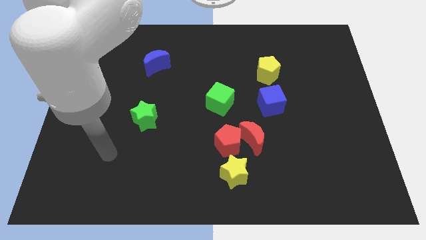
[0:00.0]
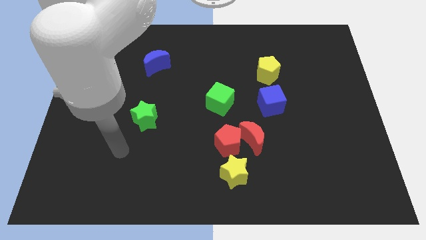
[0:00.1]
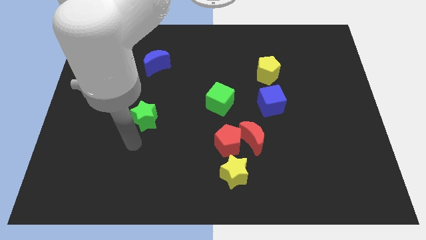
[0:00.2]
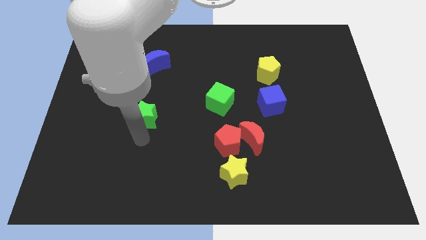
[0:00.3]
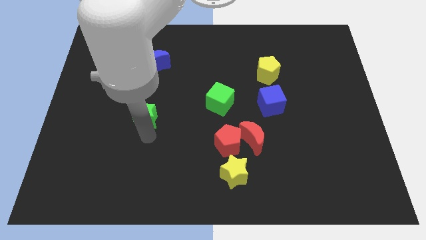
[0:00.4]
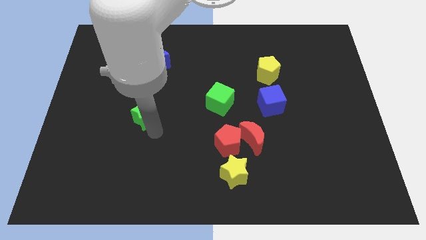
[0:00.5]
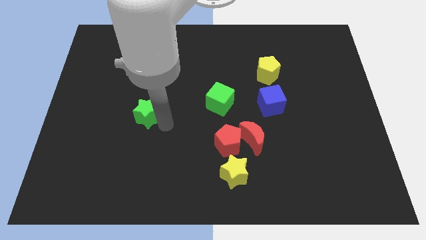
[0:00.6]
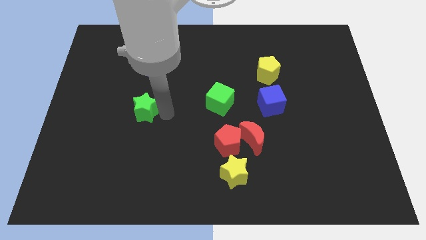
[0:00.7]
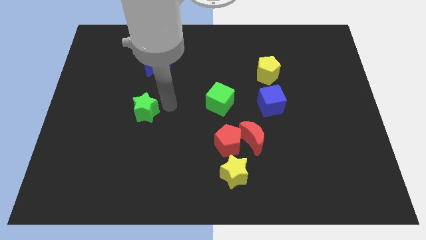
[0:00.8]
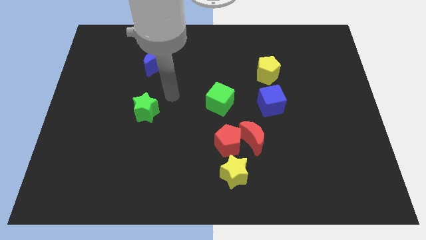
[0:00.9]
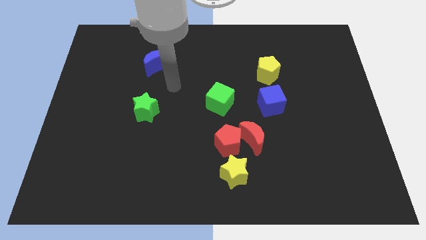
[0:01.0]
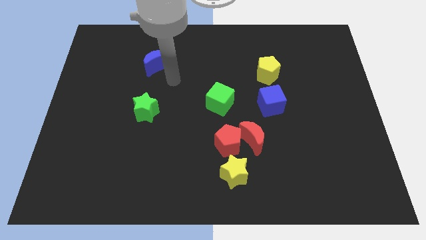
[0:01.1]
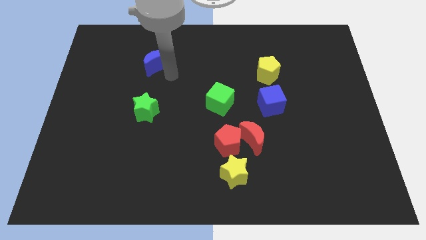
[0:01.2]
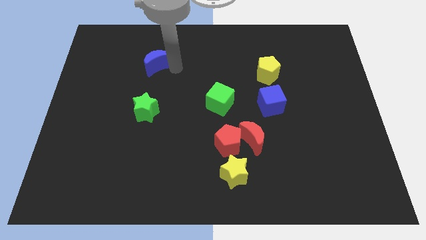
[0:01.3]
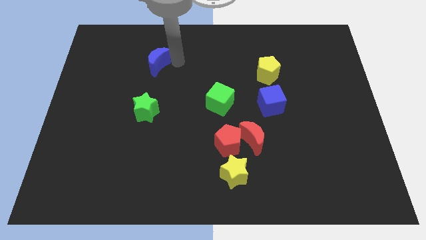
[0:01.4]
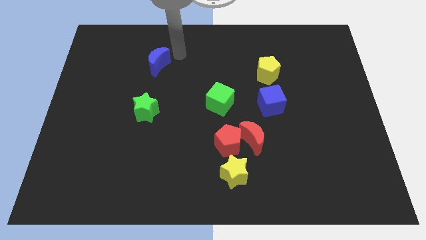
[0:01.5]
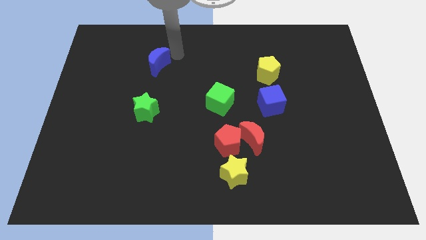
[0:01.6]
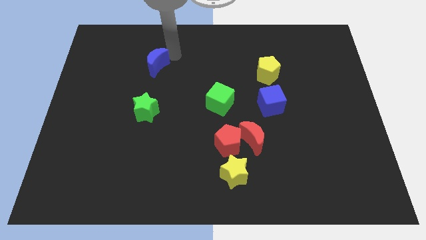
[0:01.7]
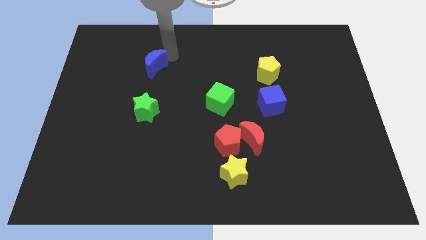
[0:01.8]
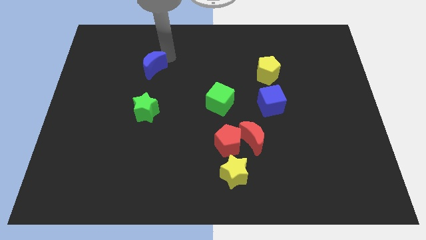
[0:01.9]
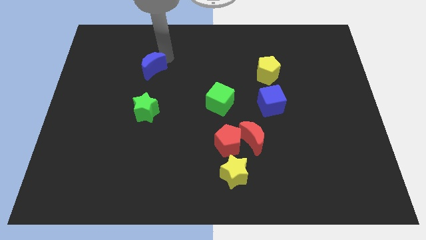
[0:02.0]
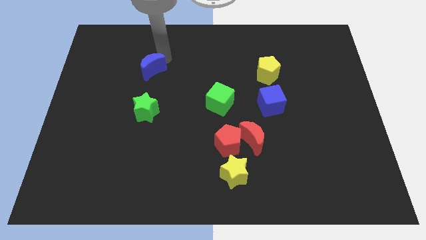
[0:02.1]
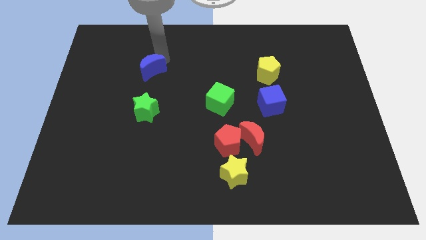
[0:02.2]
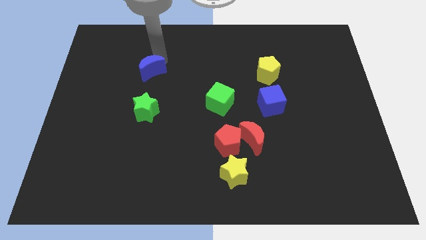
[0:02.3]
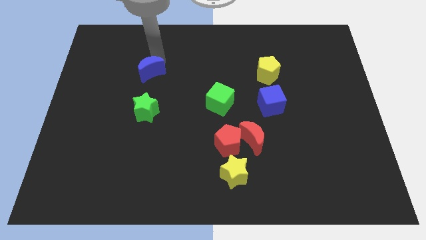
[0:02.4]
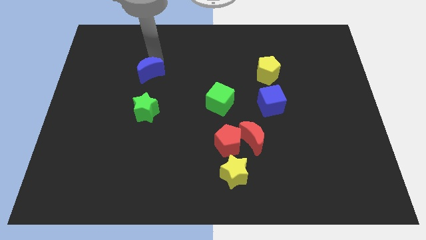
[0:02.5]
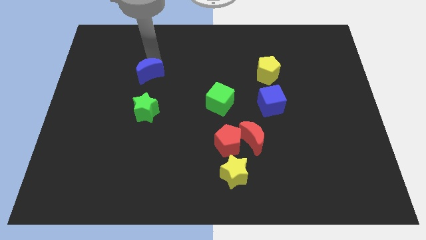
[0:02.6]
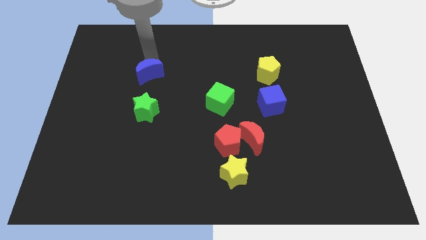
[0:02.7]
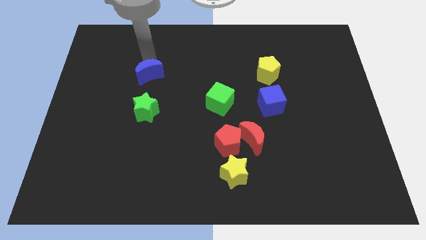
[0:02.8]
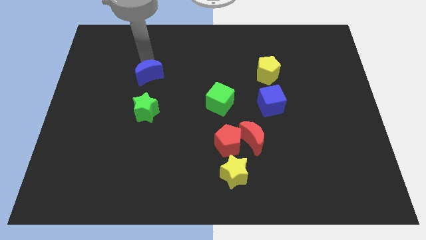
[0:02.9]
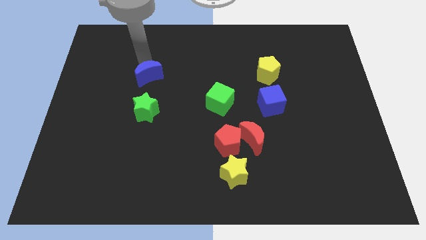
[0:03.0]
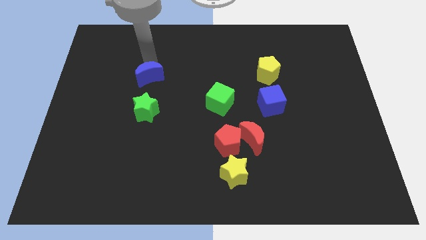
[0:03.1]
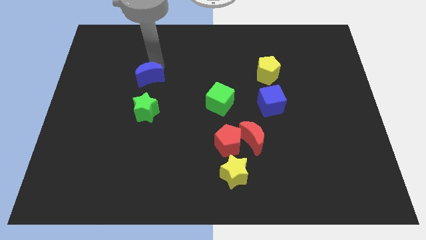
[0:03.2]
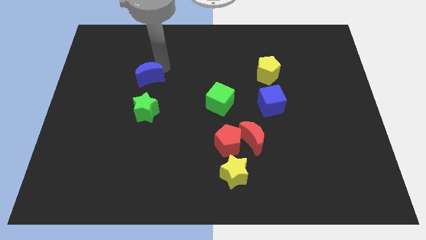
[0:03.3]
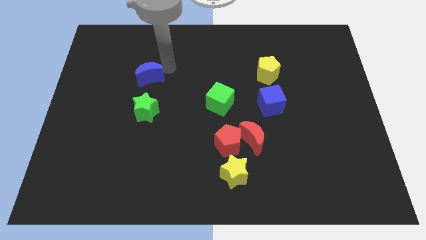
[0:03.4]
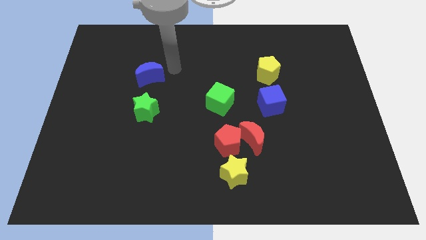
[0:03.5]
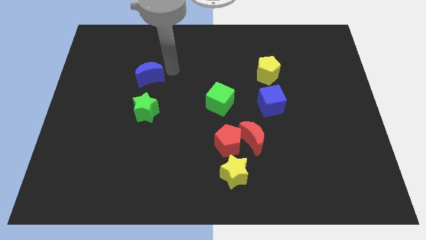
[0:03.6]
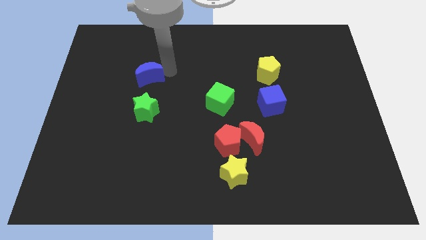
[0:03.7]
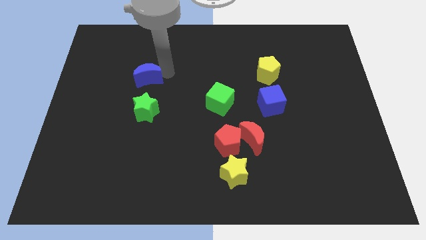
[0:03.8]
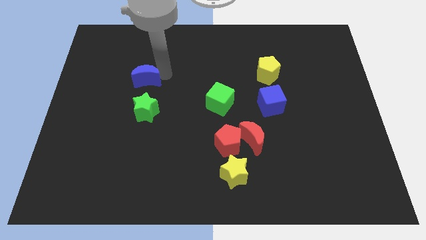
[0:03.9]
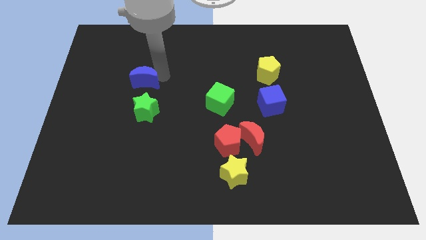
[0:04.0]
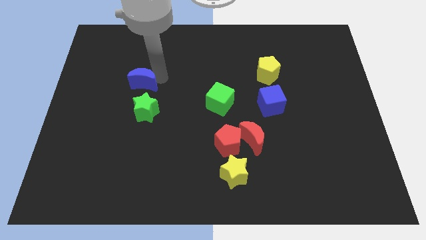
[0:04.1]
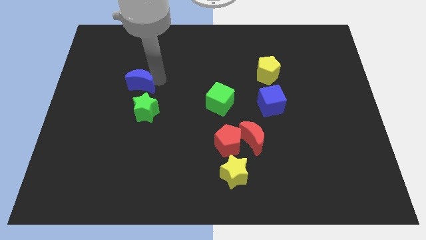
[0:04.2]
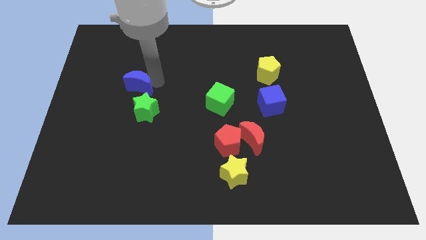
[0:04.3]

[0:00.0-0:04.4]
slide the blue moon somewhat down and then left

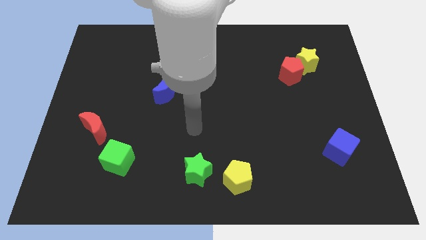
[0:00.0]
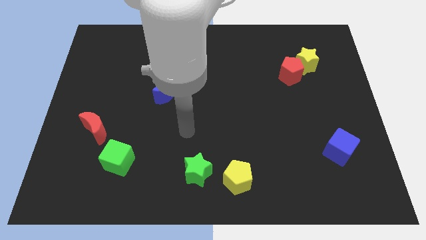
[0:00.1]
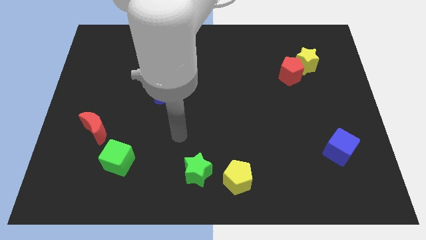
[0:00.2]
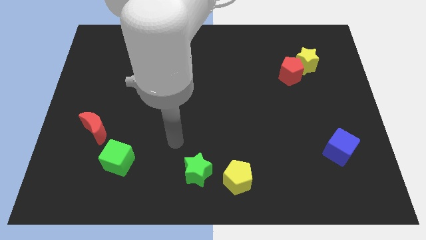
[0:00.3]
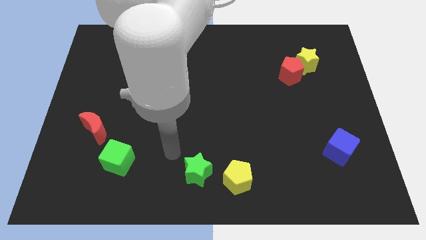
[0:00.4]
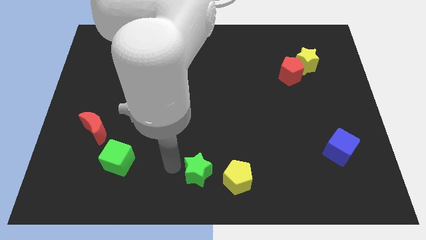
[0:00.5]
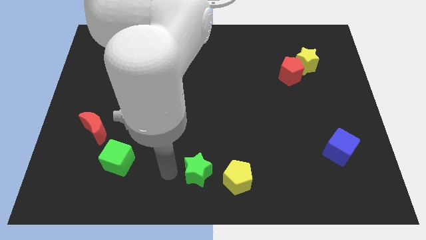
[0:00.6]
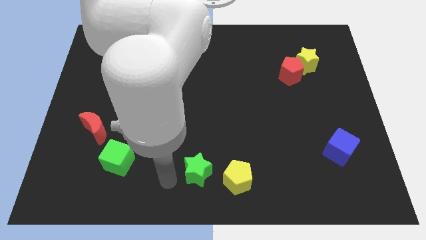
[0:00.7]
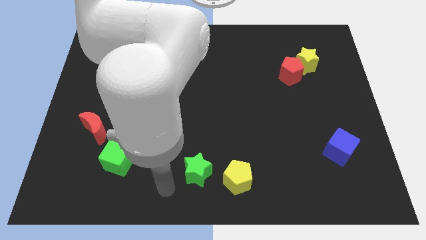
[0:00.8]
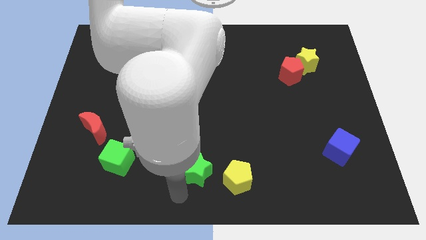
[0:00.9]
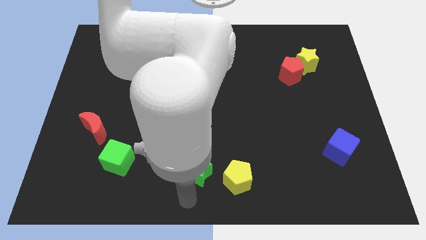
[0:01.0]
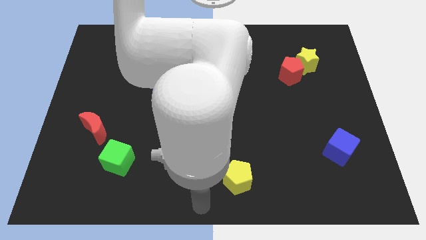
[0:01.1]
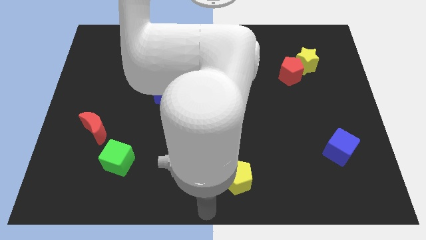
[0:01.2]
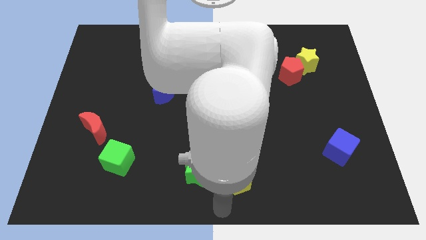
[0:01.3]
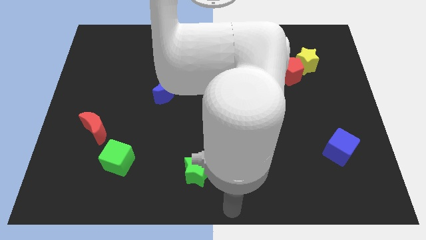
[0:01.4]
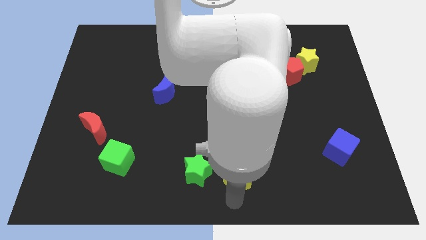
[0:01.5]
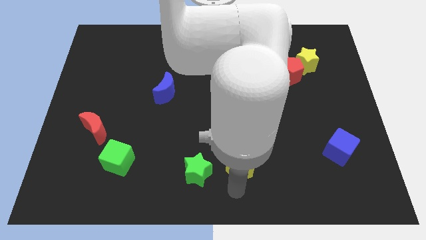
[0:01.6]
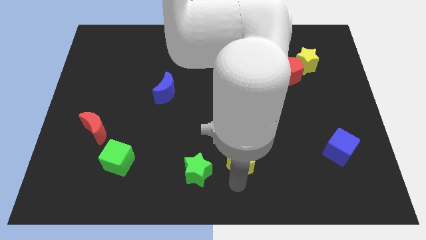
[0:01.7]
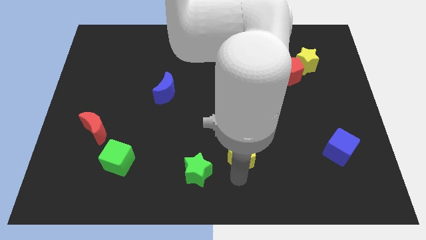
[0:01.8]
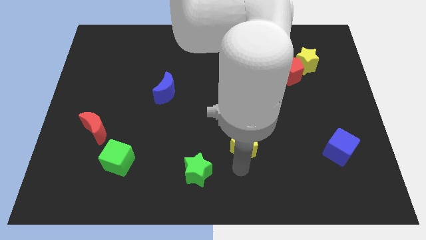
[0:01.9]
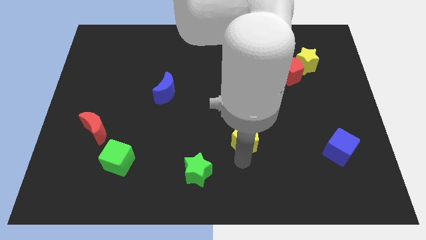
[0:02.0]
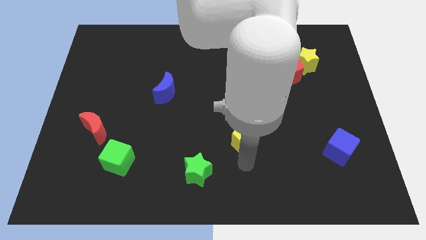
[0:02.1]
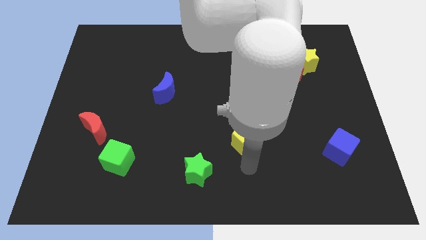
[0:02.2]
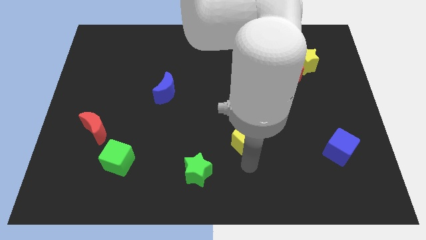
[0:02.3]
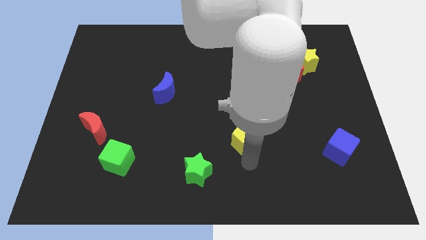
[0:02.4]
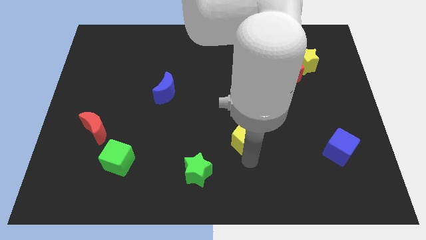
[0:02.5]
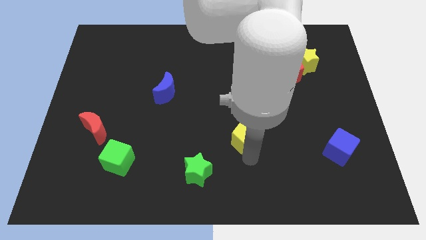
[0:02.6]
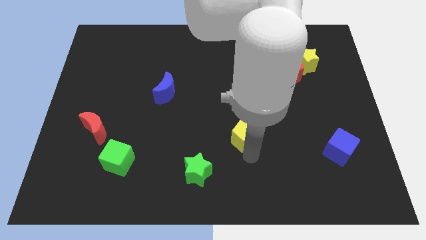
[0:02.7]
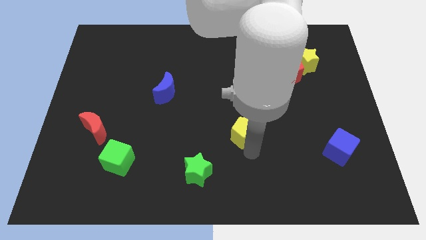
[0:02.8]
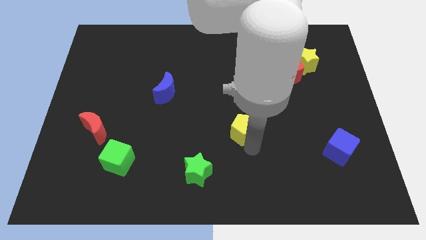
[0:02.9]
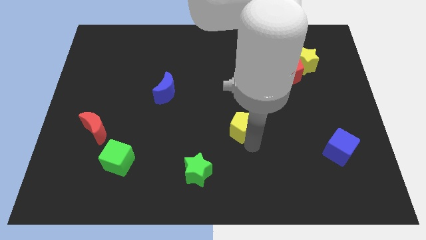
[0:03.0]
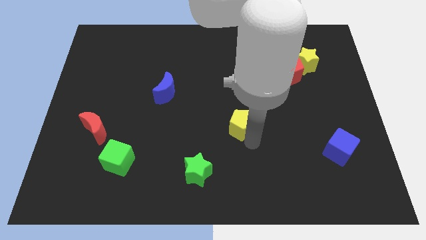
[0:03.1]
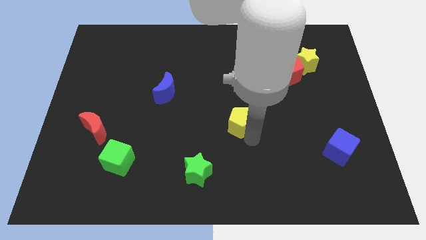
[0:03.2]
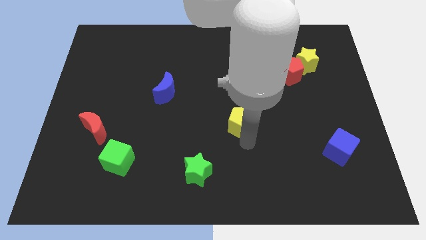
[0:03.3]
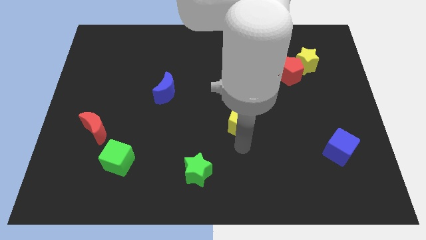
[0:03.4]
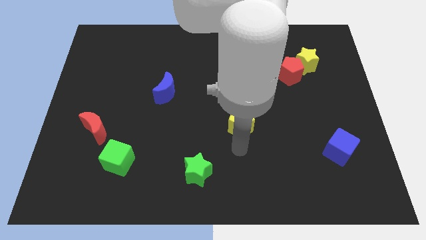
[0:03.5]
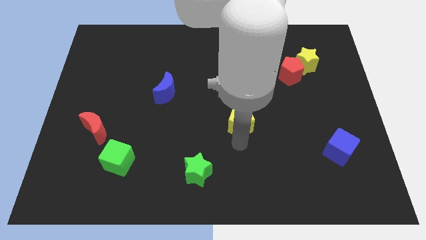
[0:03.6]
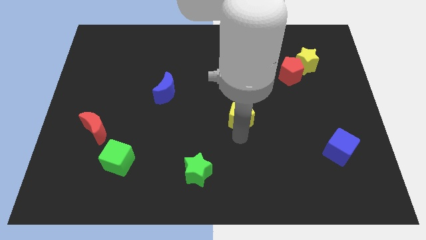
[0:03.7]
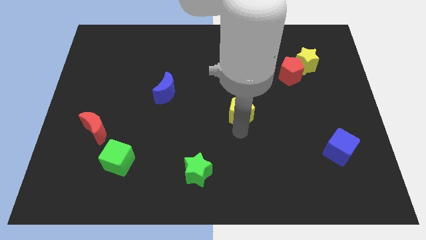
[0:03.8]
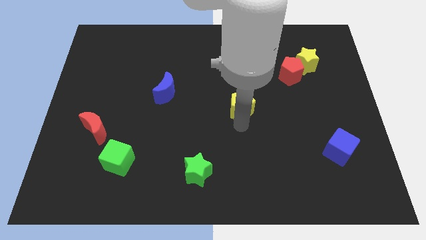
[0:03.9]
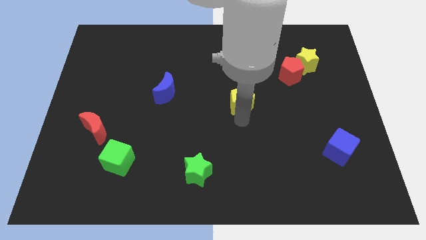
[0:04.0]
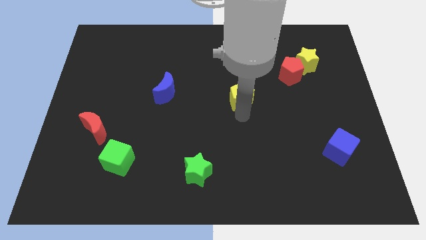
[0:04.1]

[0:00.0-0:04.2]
slide the yellow pentagon upwards
